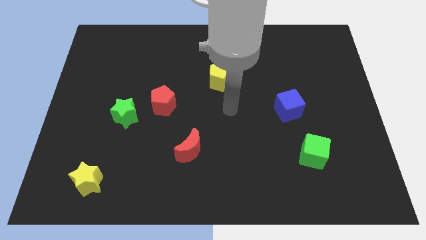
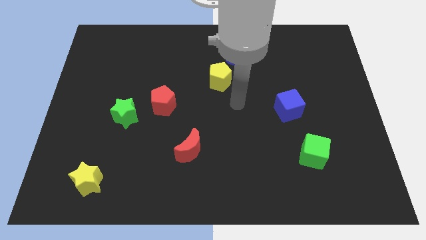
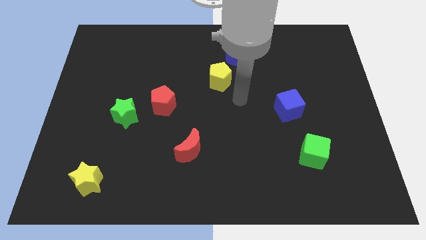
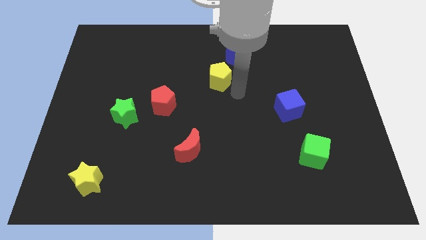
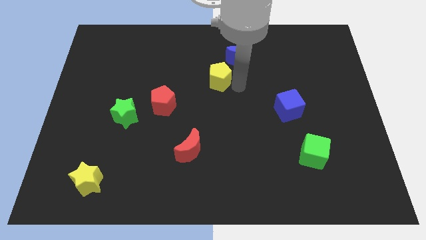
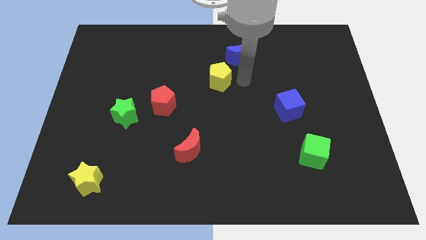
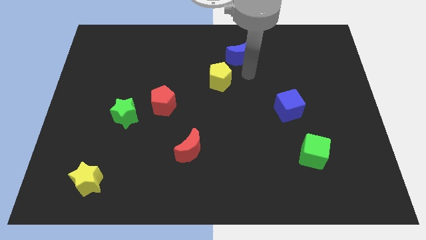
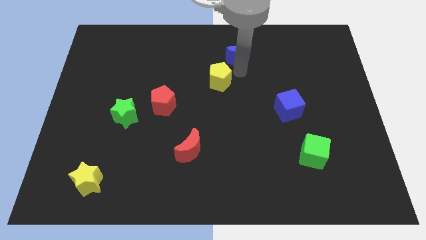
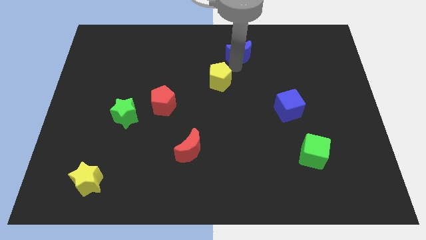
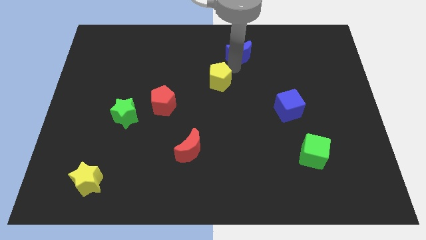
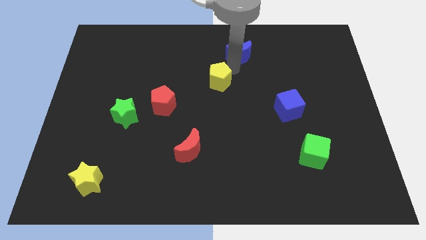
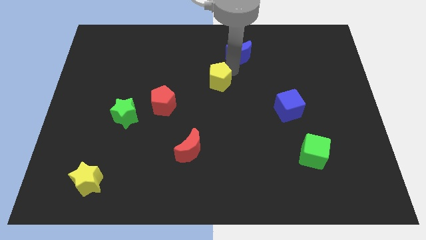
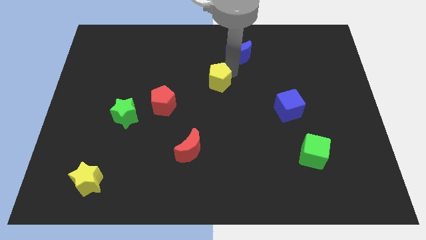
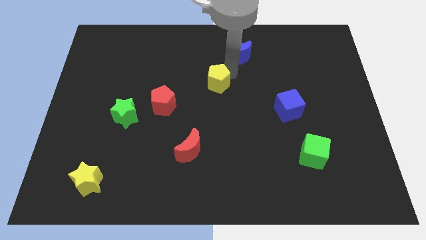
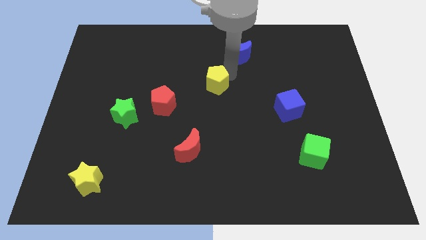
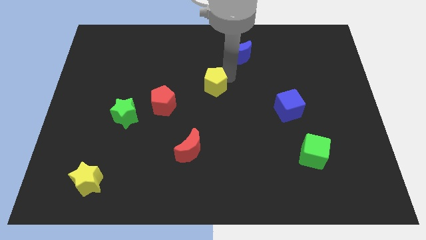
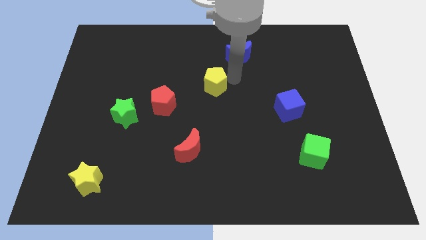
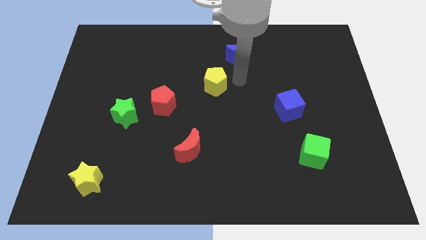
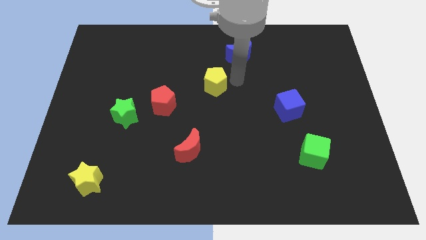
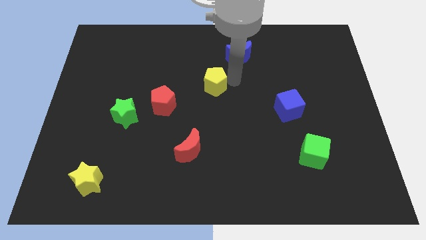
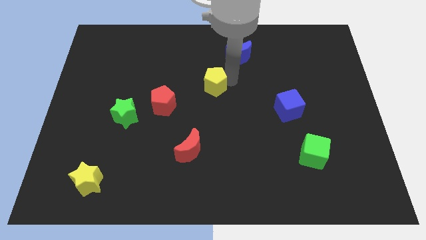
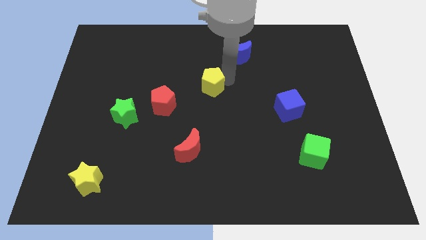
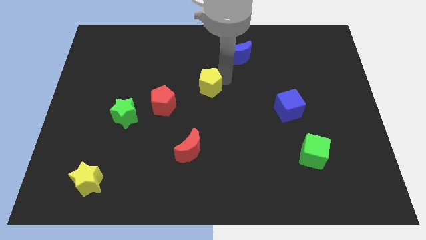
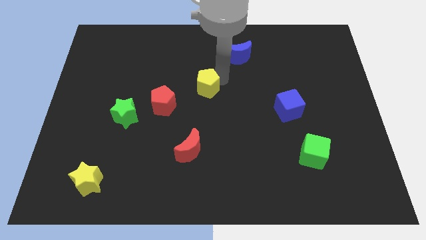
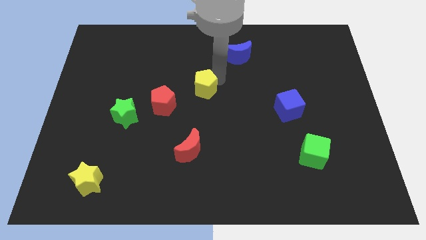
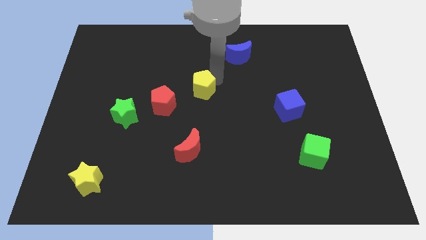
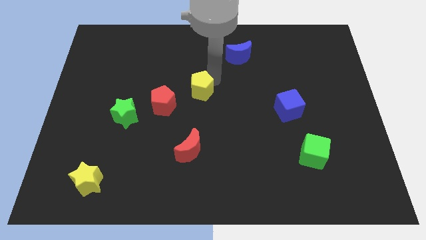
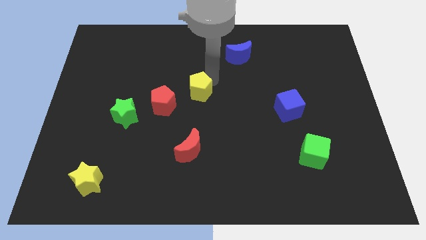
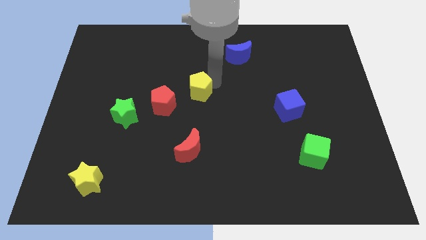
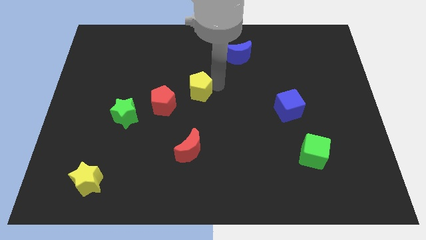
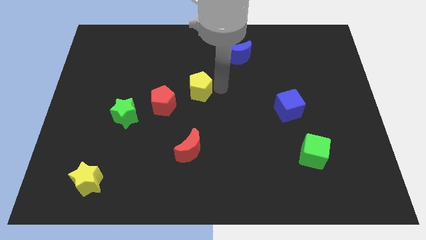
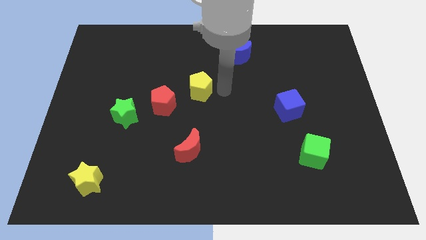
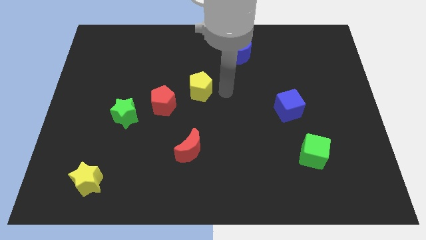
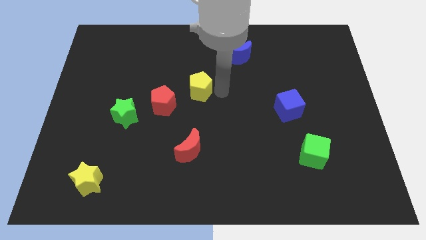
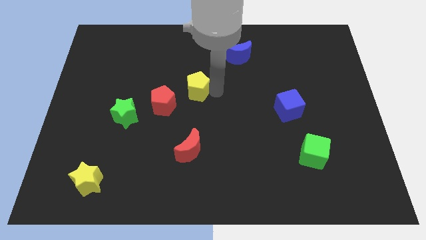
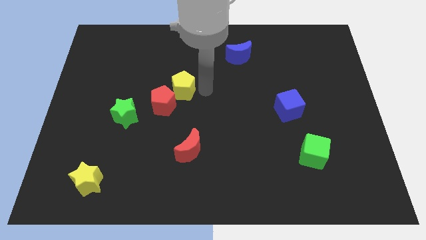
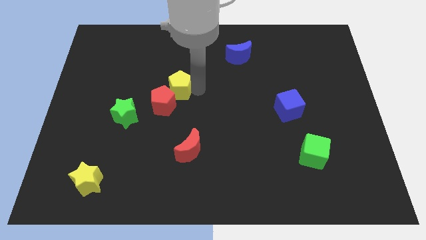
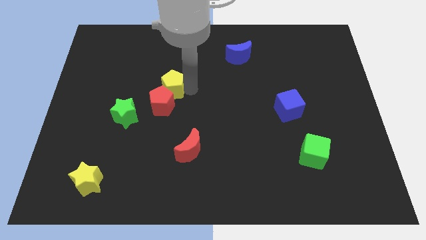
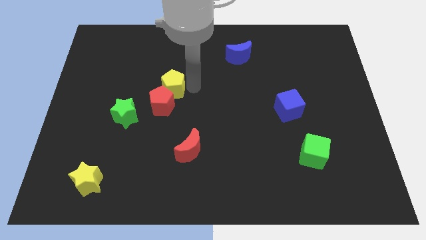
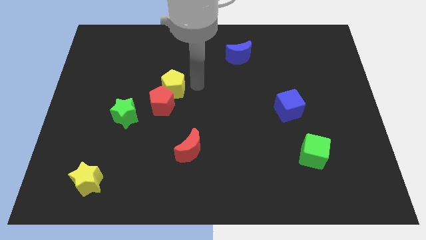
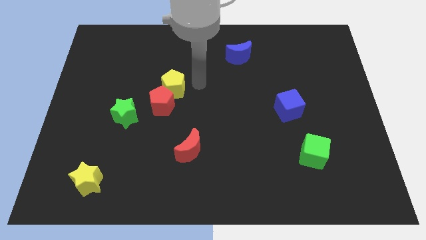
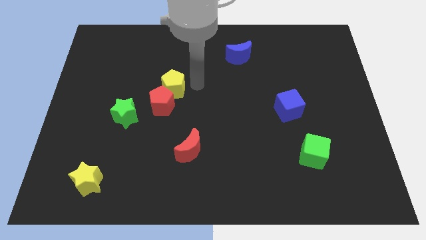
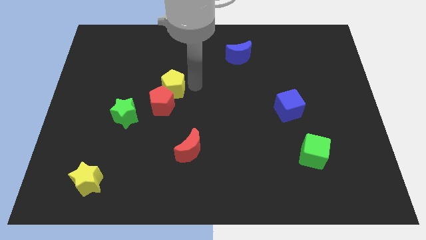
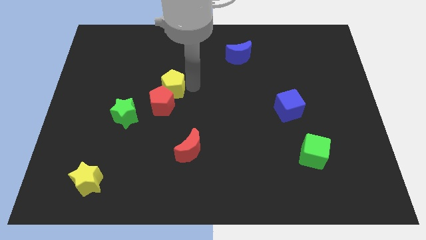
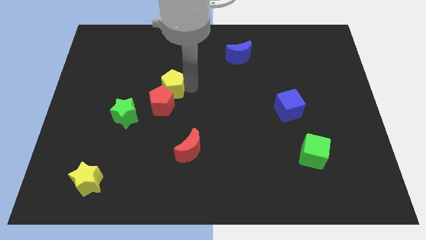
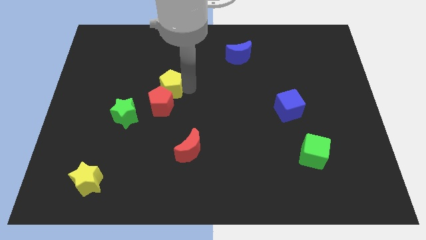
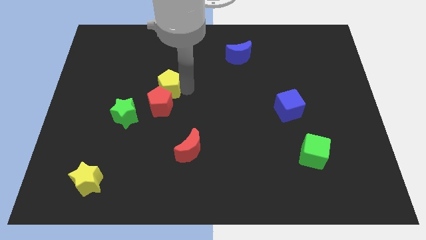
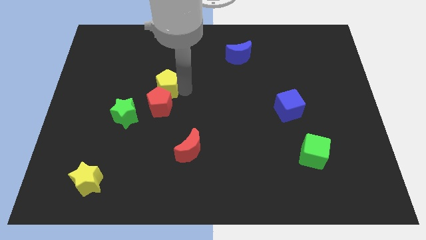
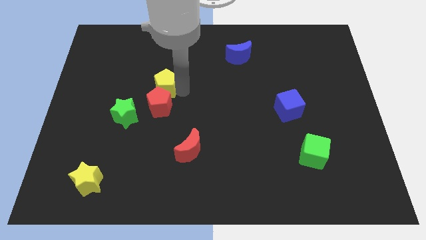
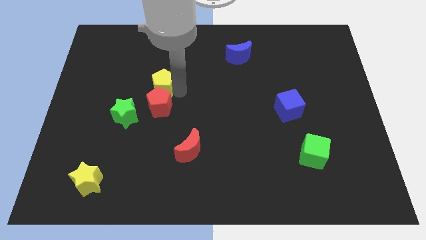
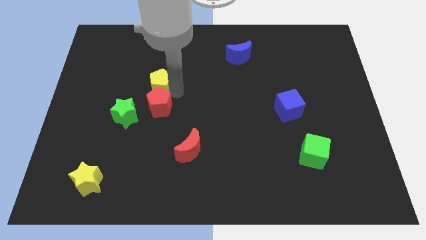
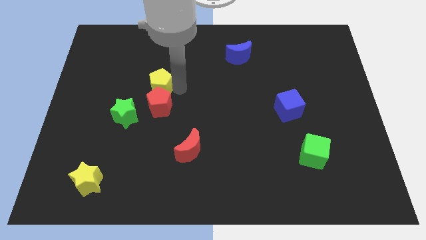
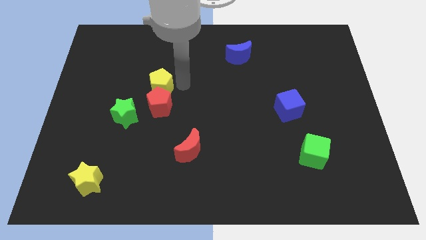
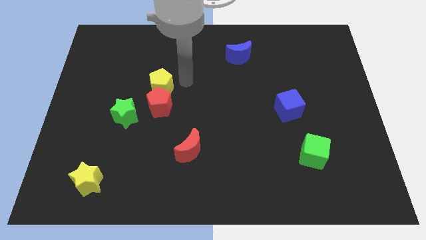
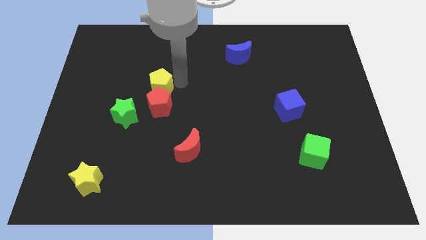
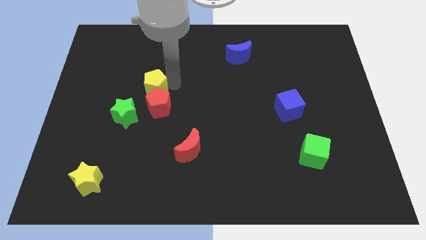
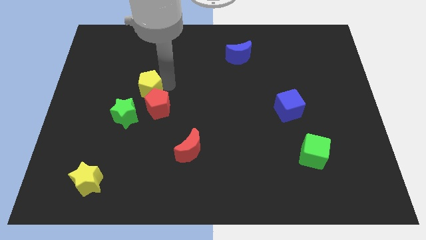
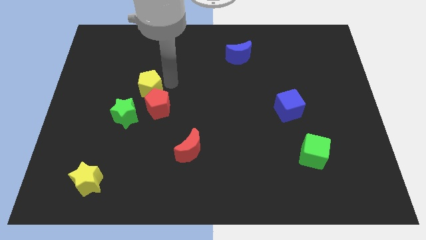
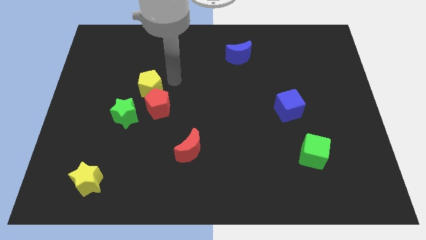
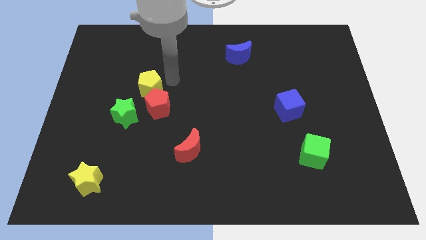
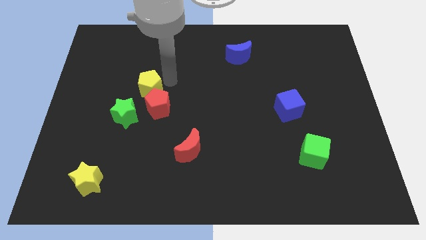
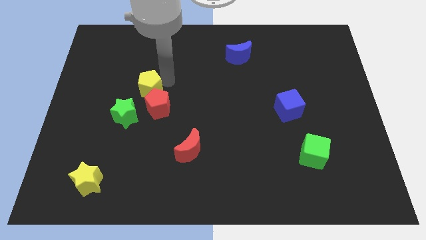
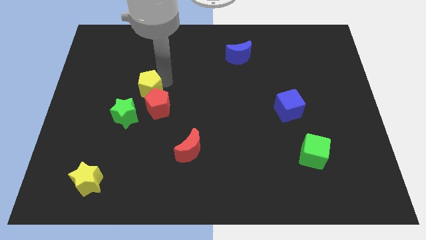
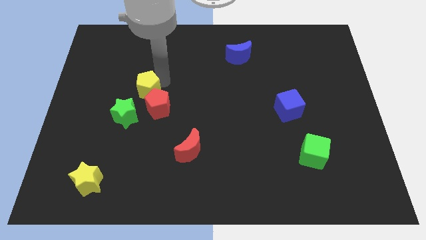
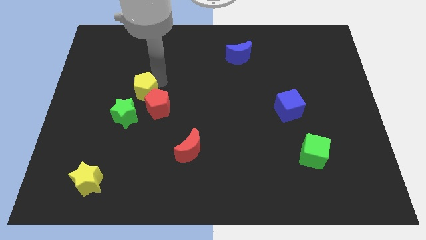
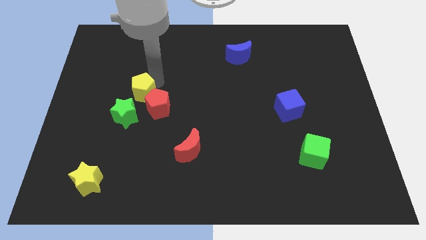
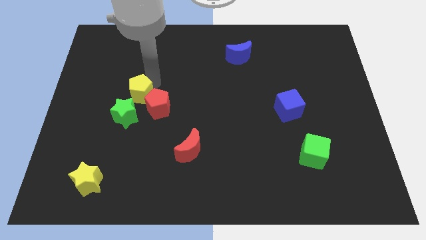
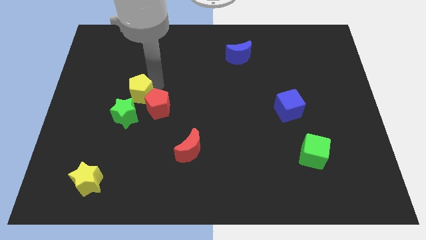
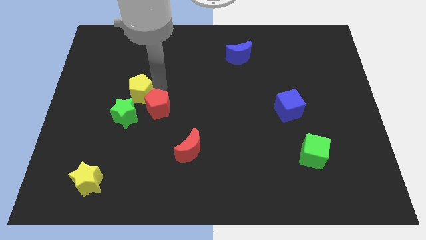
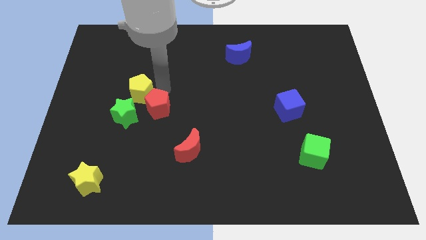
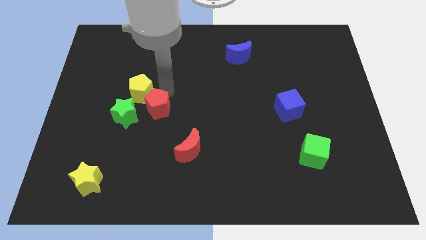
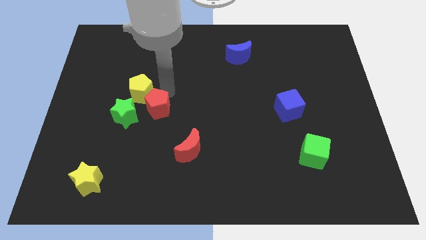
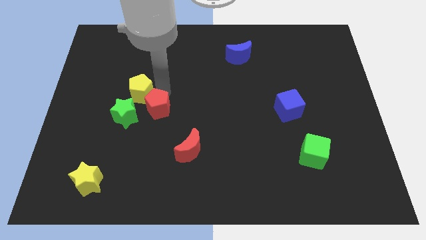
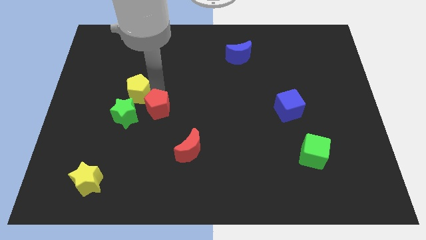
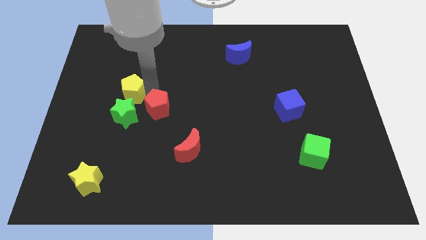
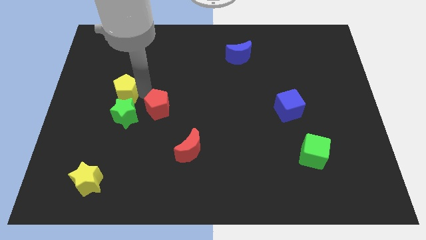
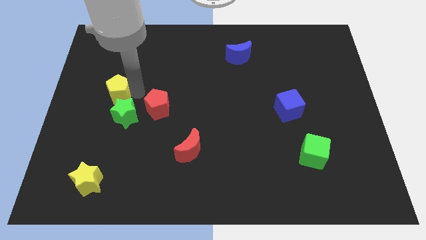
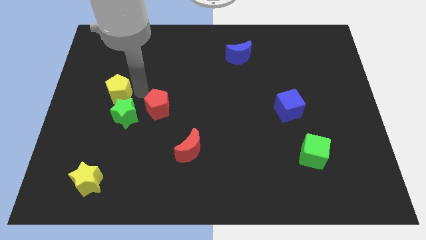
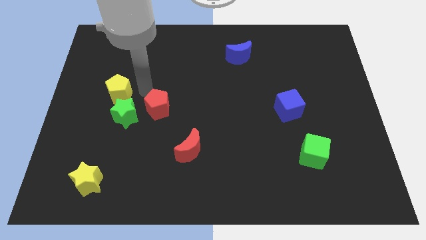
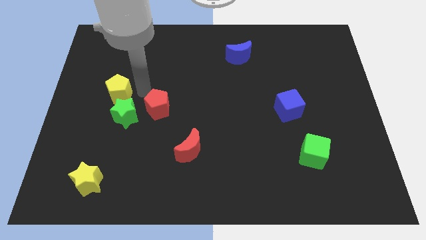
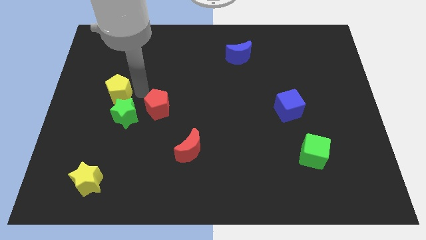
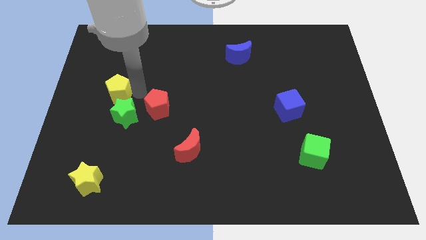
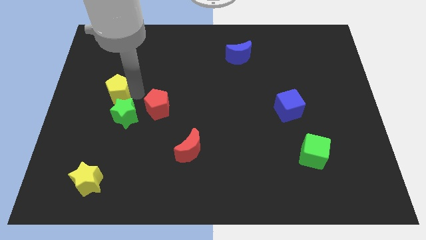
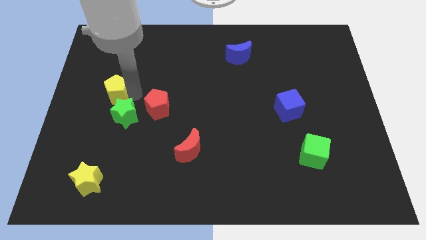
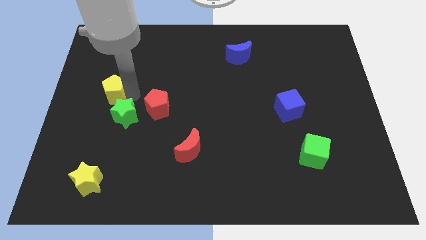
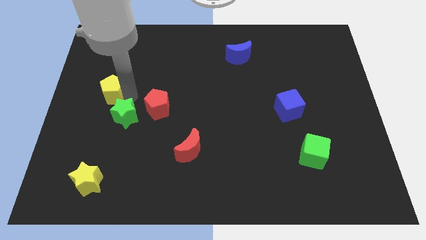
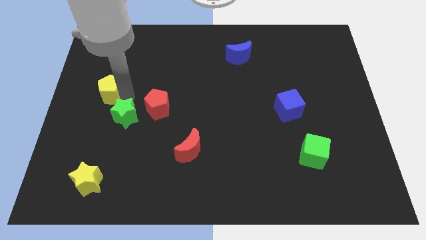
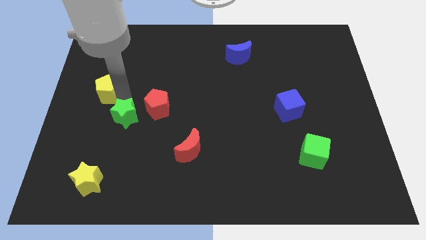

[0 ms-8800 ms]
move the yellow pentagon to the left side
